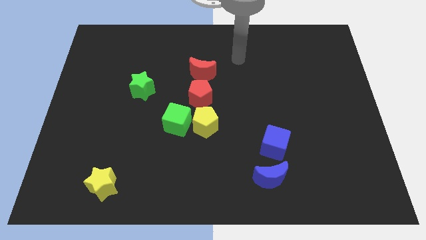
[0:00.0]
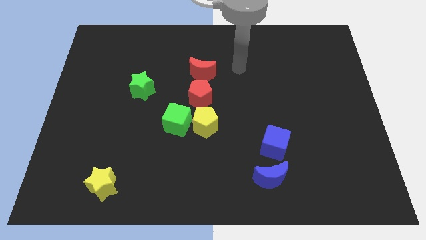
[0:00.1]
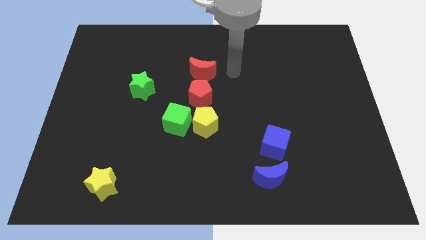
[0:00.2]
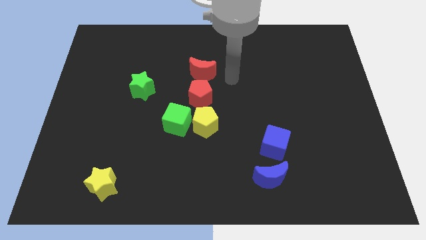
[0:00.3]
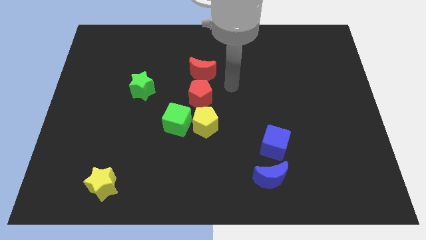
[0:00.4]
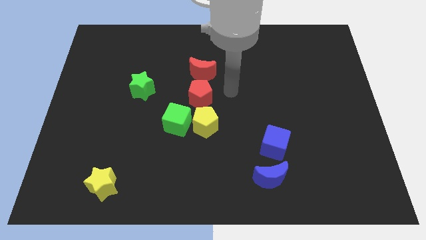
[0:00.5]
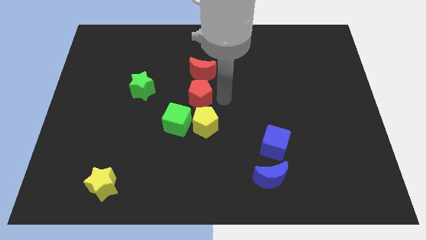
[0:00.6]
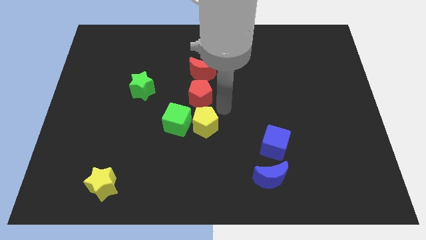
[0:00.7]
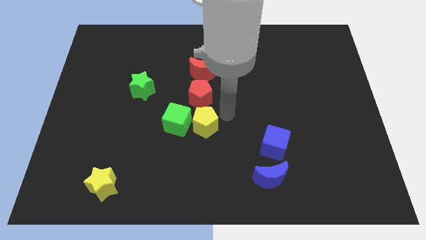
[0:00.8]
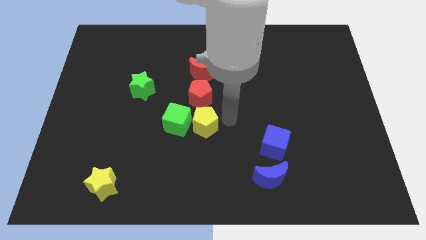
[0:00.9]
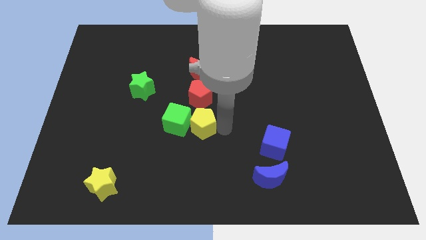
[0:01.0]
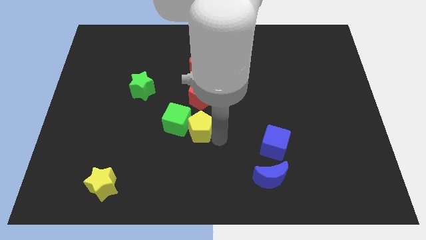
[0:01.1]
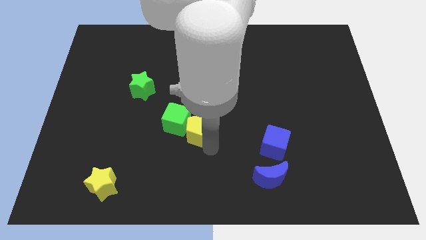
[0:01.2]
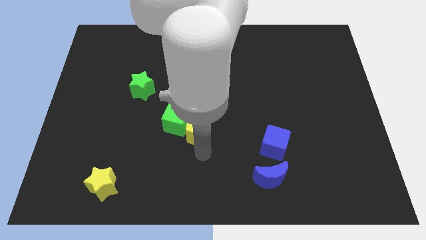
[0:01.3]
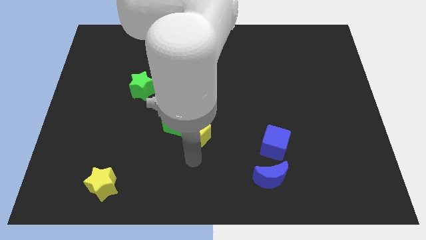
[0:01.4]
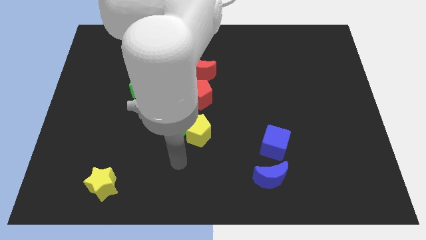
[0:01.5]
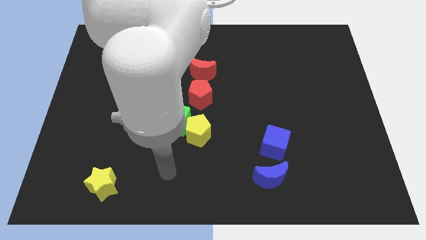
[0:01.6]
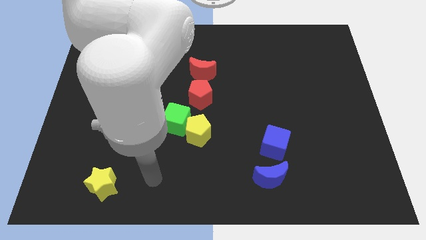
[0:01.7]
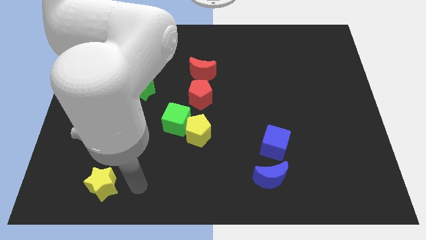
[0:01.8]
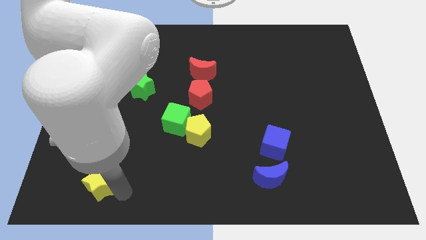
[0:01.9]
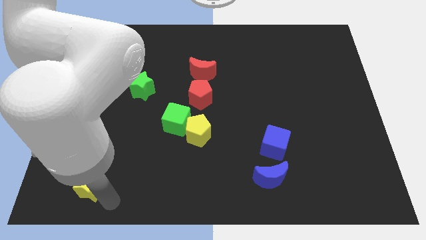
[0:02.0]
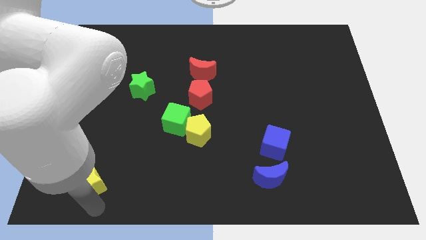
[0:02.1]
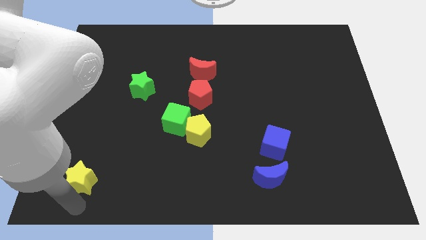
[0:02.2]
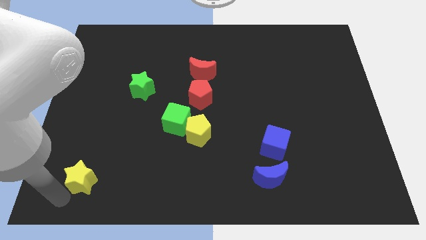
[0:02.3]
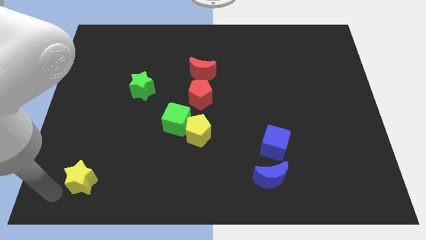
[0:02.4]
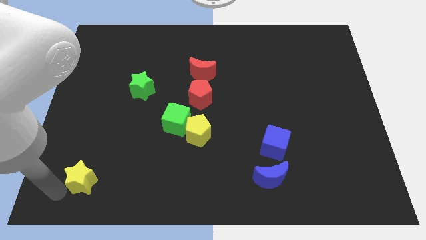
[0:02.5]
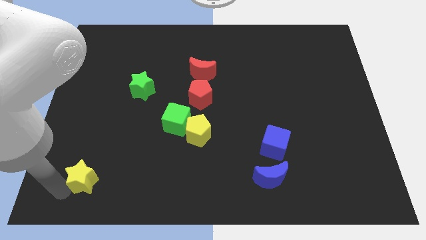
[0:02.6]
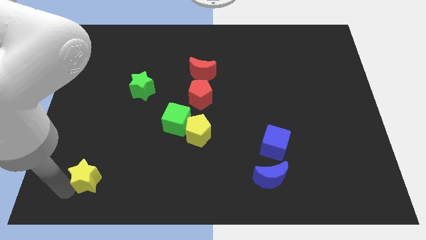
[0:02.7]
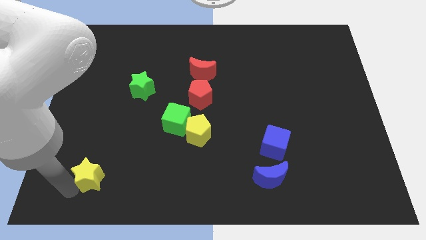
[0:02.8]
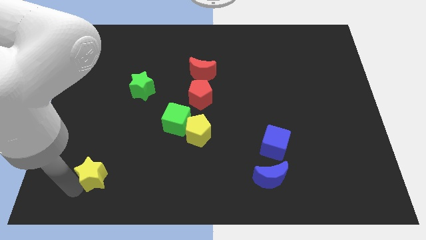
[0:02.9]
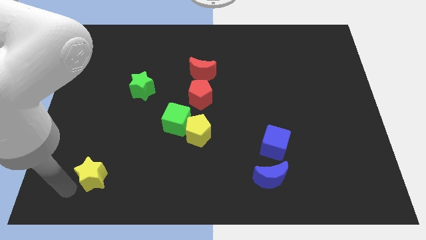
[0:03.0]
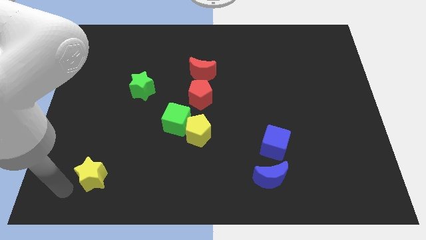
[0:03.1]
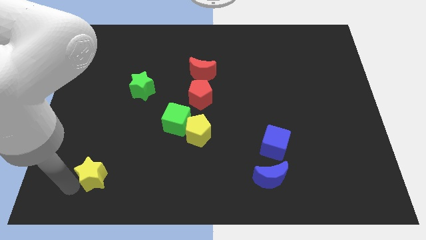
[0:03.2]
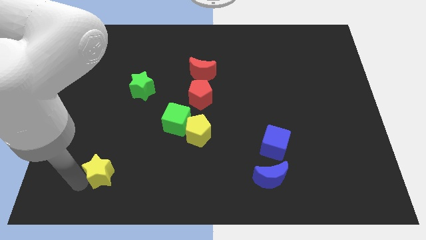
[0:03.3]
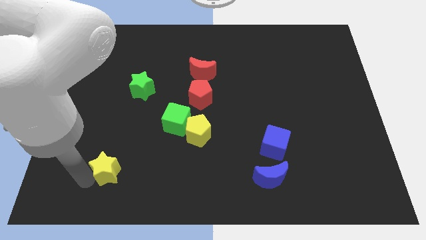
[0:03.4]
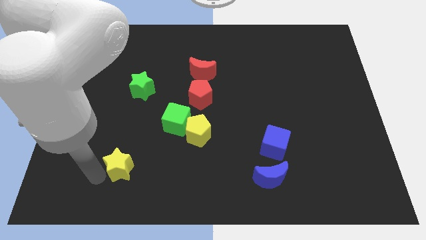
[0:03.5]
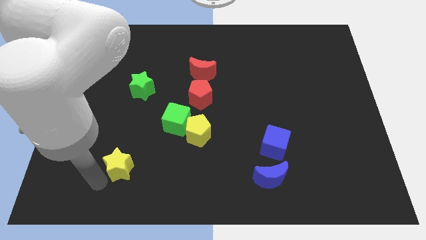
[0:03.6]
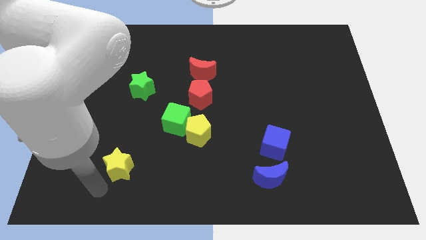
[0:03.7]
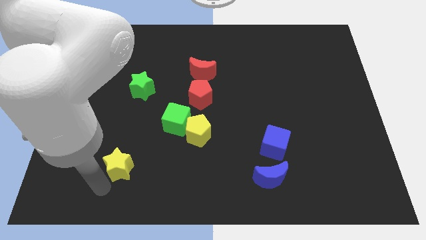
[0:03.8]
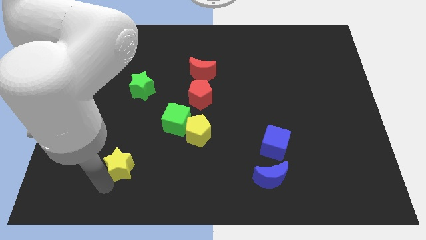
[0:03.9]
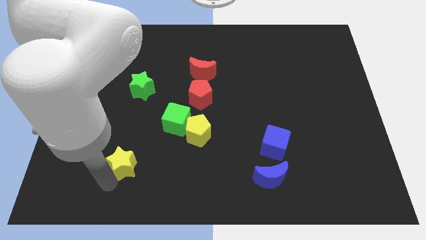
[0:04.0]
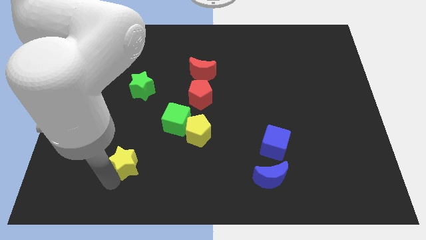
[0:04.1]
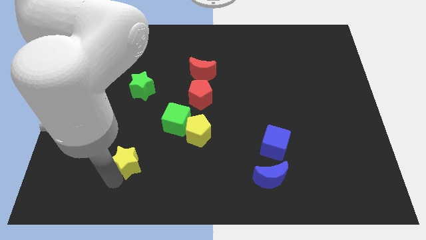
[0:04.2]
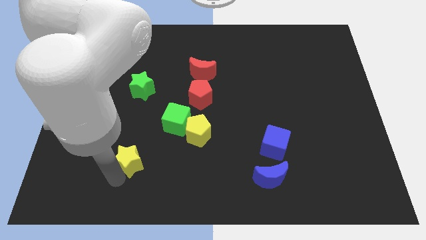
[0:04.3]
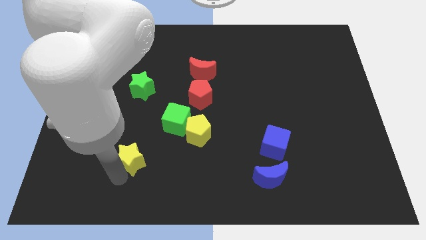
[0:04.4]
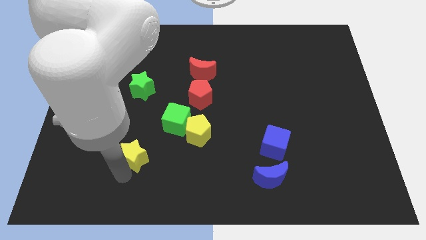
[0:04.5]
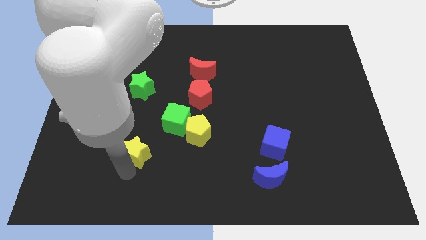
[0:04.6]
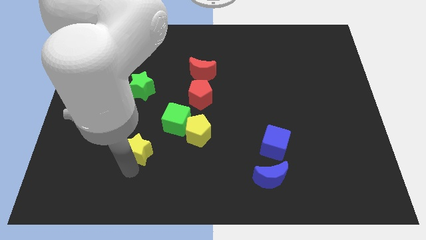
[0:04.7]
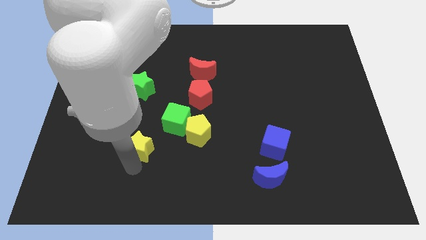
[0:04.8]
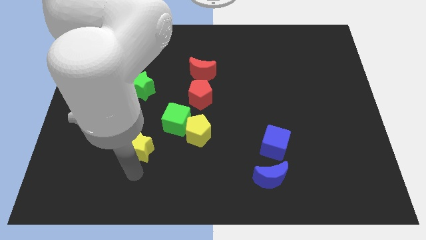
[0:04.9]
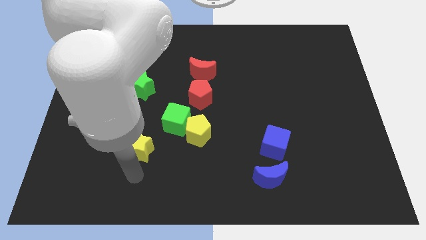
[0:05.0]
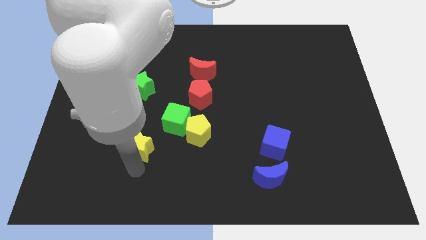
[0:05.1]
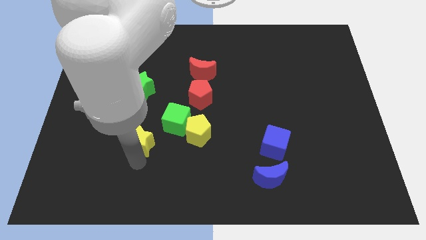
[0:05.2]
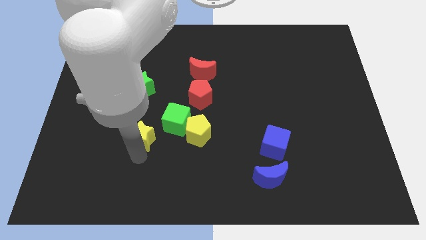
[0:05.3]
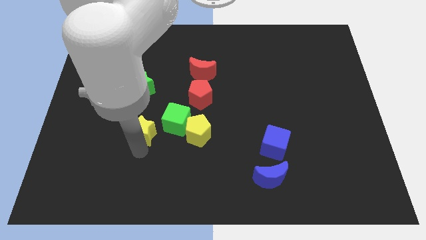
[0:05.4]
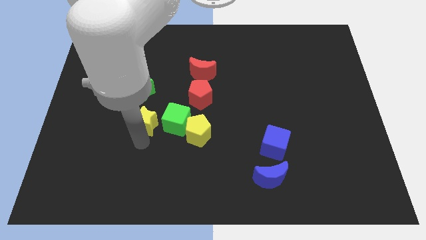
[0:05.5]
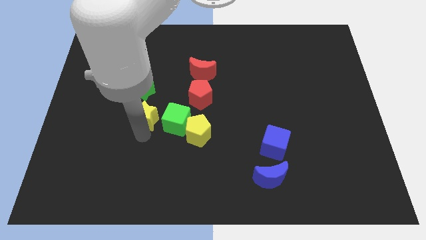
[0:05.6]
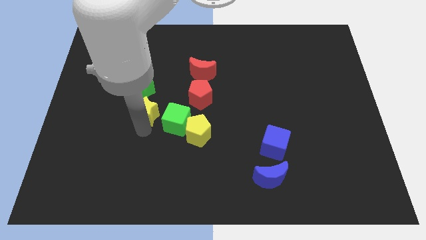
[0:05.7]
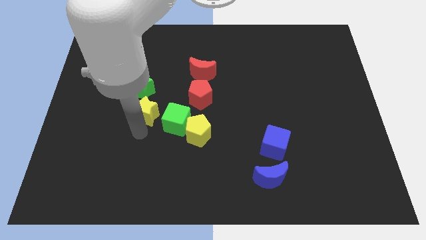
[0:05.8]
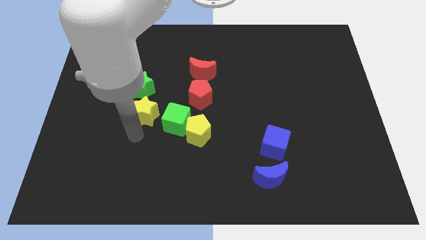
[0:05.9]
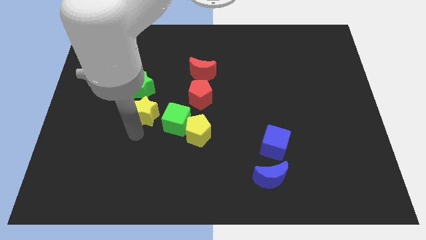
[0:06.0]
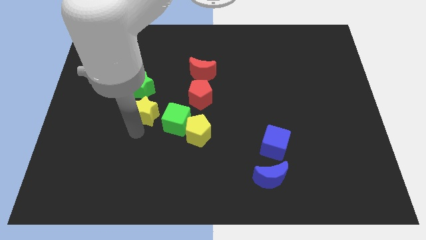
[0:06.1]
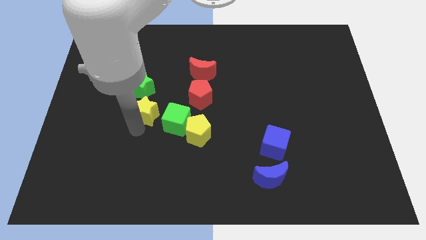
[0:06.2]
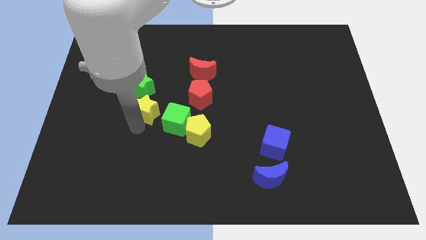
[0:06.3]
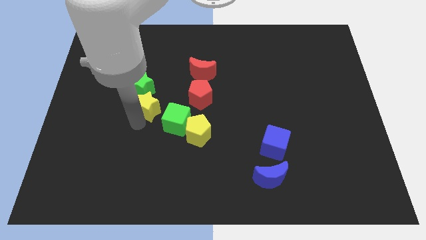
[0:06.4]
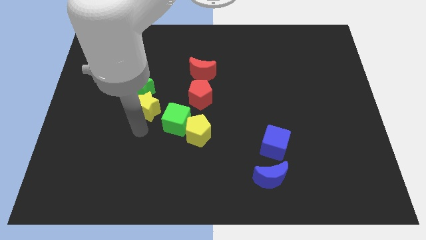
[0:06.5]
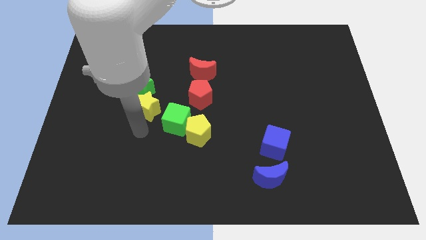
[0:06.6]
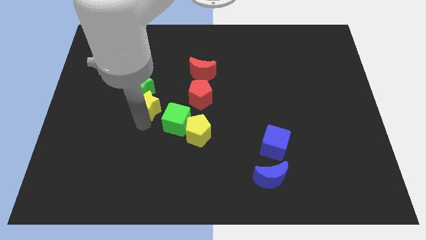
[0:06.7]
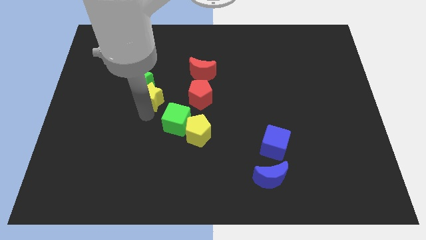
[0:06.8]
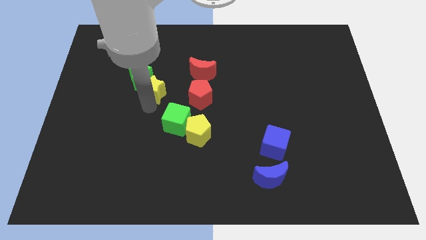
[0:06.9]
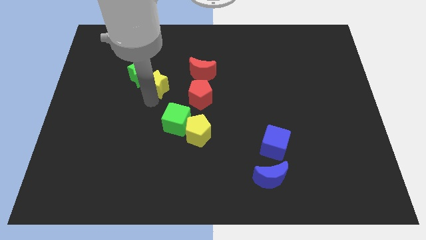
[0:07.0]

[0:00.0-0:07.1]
slide the yellow star just left of the red moon
